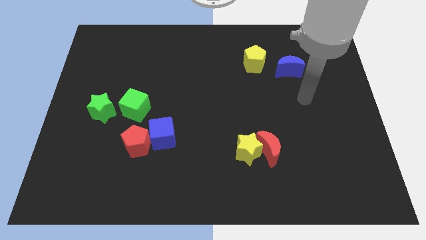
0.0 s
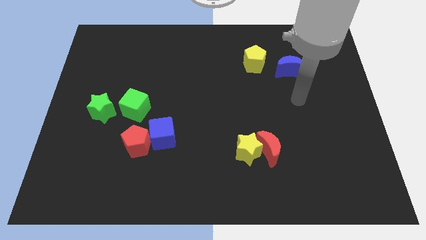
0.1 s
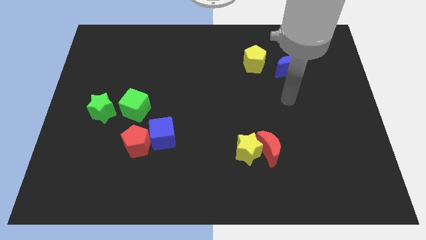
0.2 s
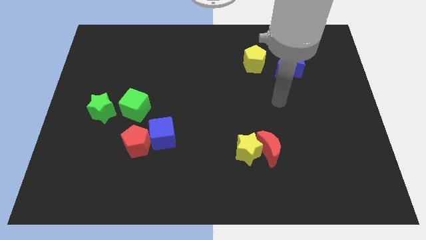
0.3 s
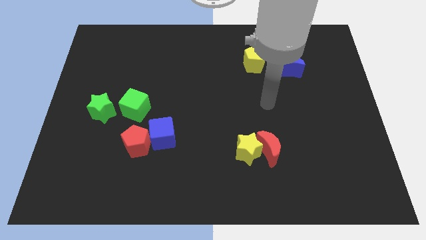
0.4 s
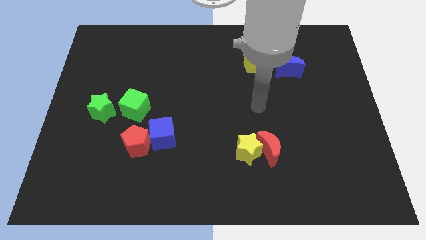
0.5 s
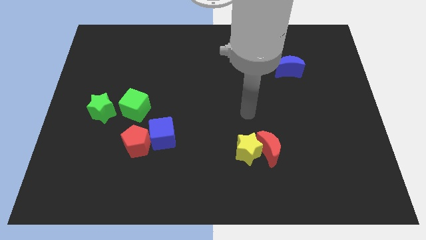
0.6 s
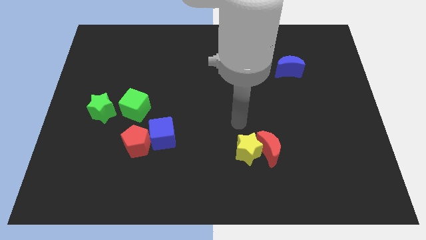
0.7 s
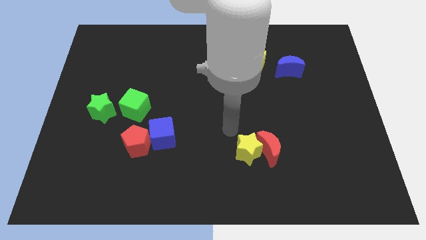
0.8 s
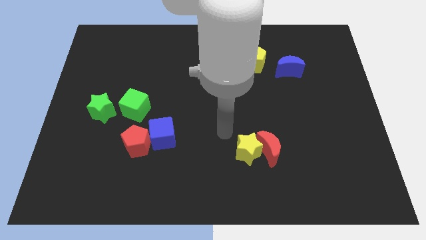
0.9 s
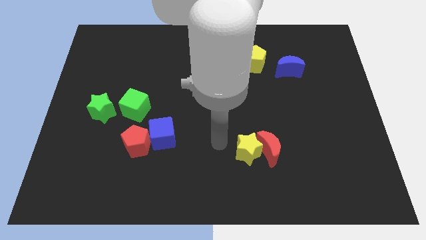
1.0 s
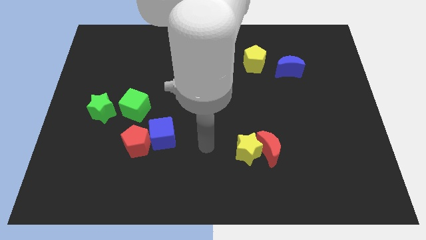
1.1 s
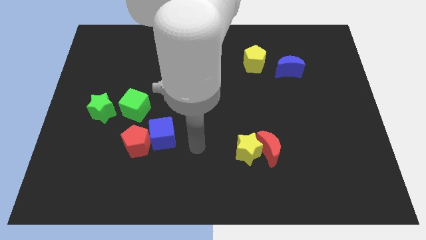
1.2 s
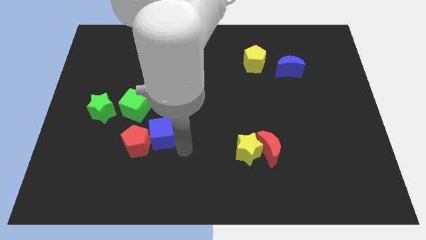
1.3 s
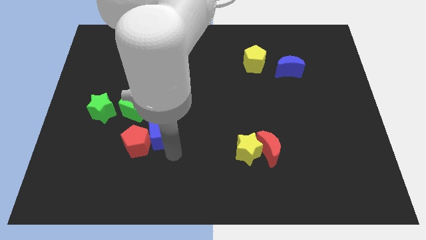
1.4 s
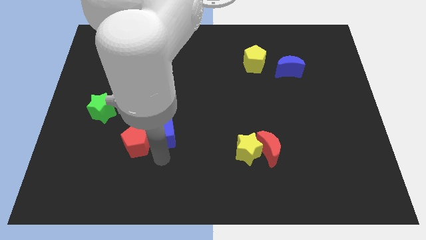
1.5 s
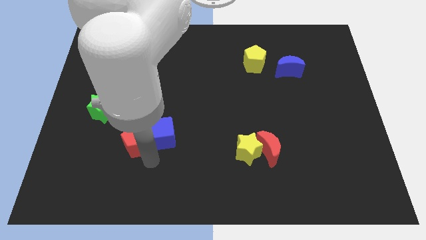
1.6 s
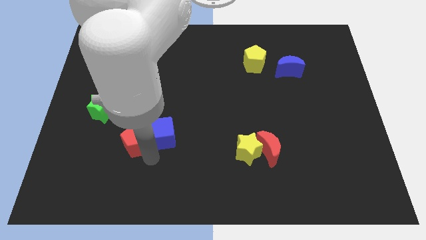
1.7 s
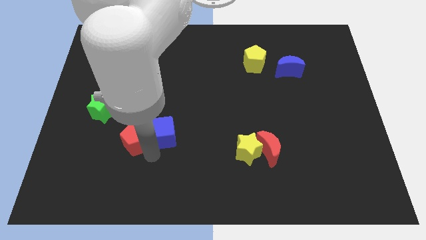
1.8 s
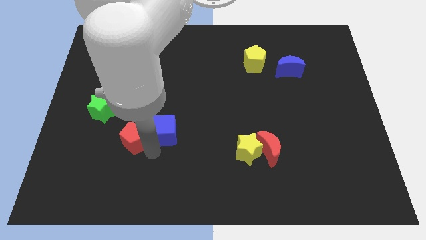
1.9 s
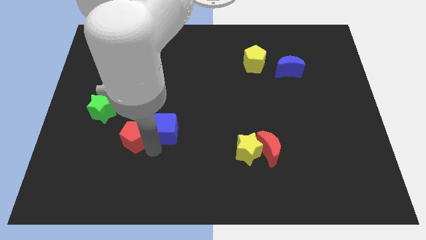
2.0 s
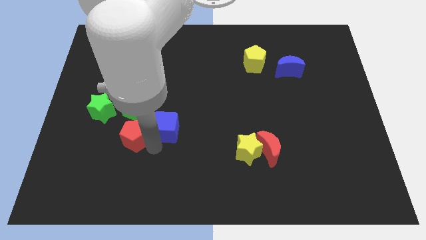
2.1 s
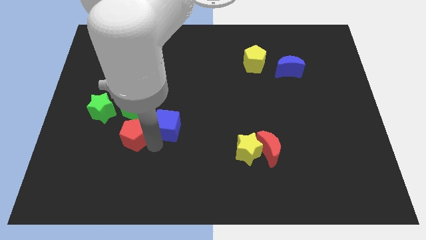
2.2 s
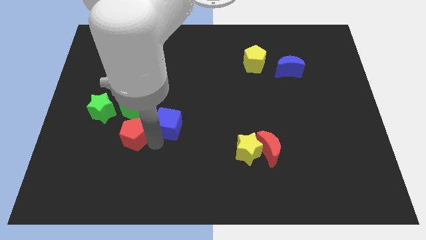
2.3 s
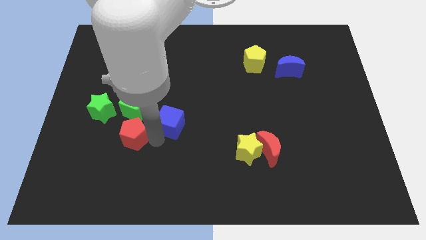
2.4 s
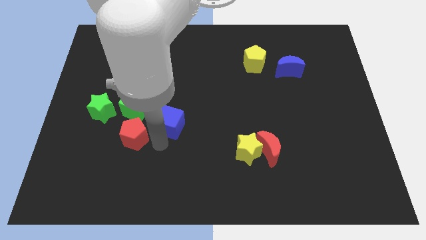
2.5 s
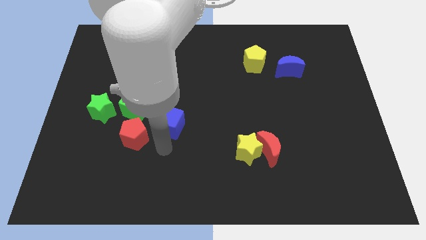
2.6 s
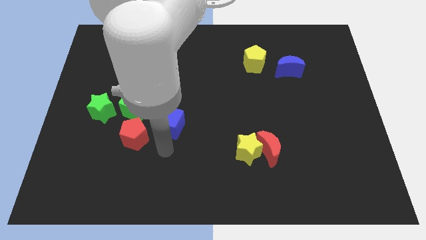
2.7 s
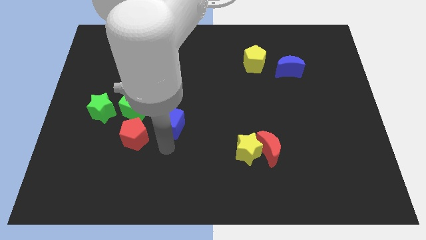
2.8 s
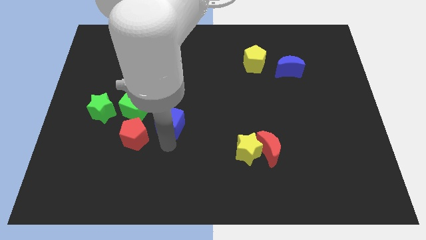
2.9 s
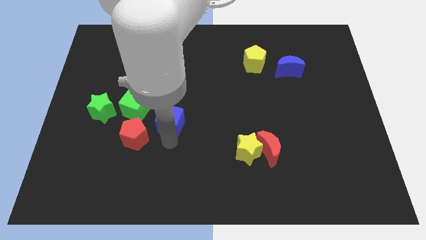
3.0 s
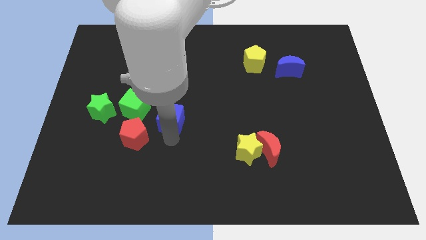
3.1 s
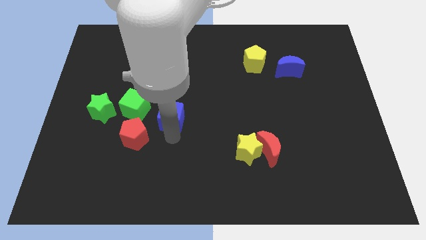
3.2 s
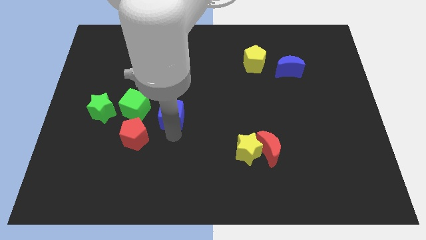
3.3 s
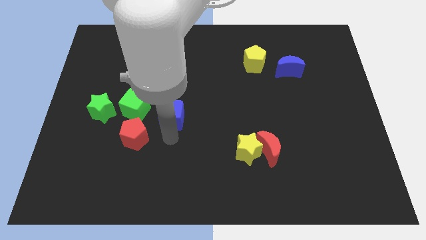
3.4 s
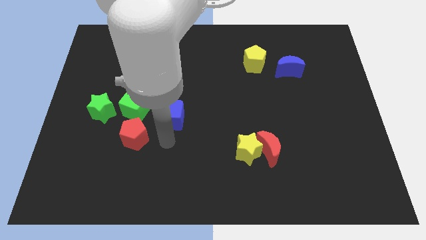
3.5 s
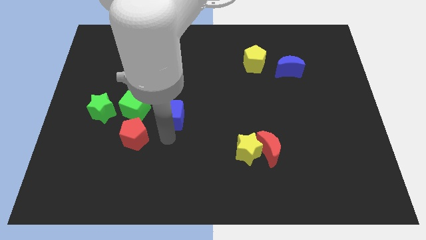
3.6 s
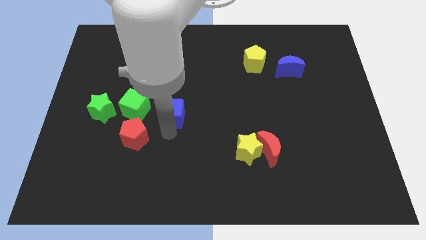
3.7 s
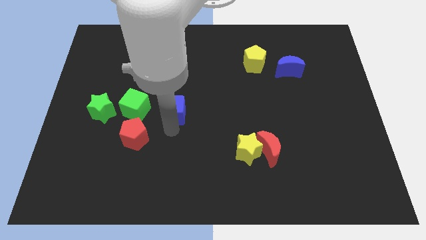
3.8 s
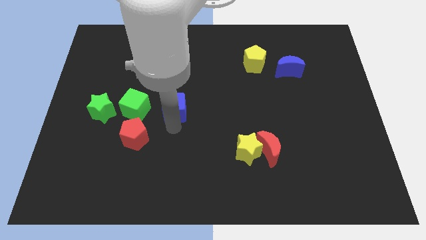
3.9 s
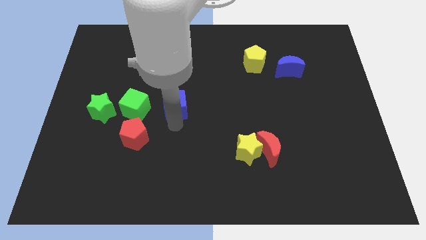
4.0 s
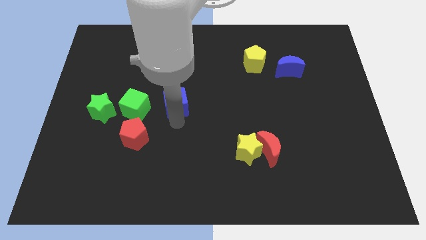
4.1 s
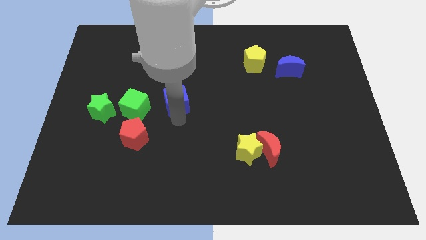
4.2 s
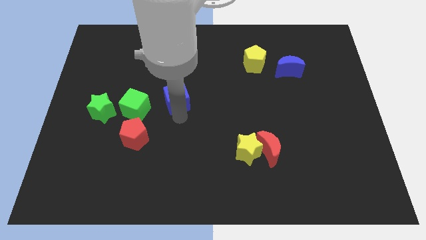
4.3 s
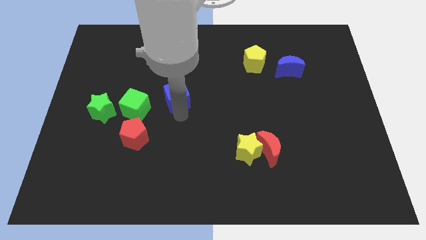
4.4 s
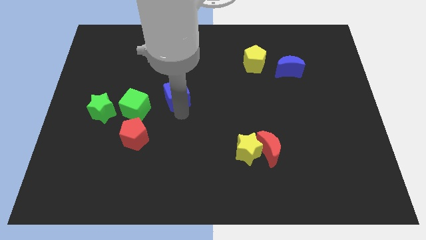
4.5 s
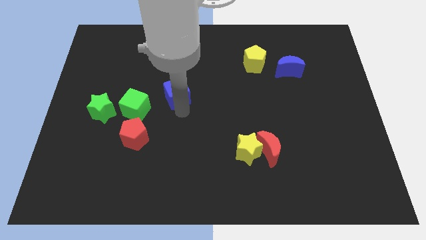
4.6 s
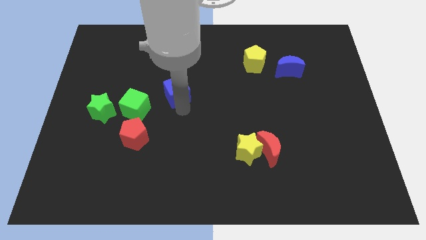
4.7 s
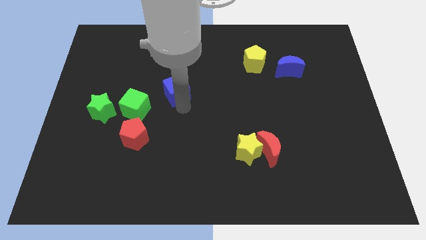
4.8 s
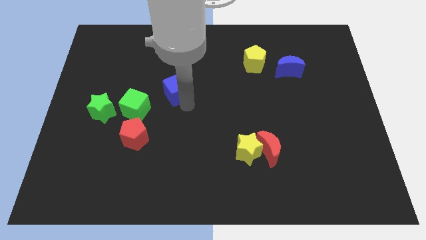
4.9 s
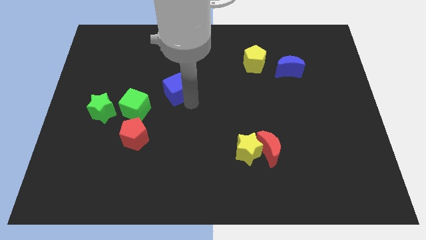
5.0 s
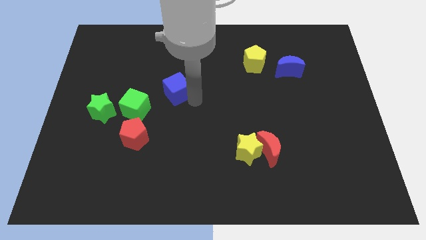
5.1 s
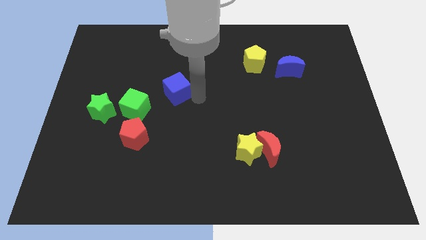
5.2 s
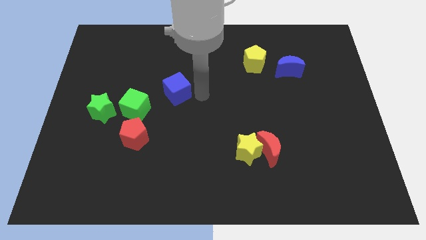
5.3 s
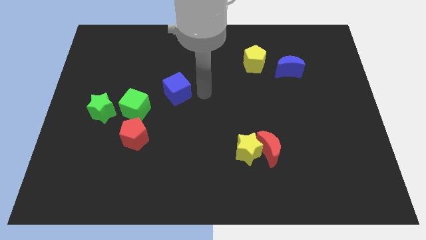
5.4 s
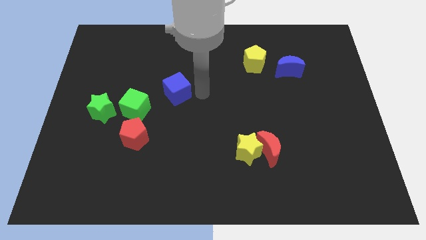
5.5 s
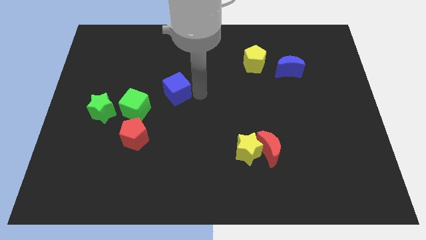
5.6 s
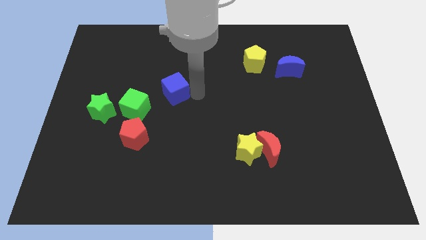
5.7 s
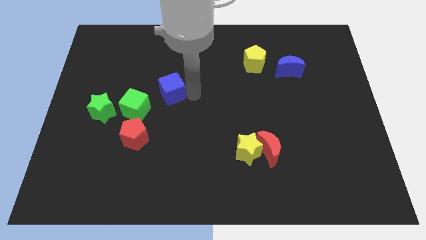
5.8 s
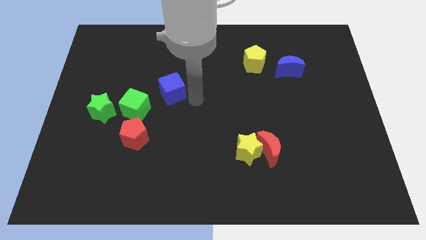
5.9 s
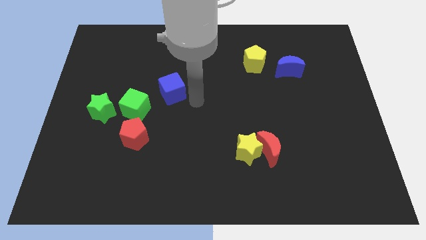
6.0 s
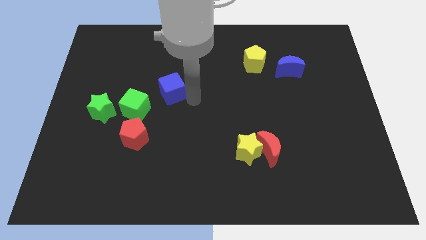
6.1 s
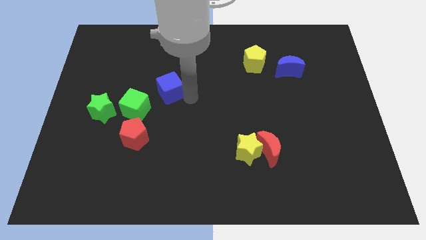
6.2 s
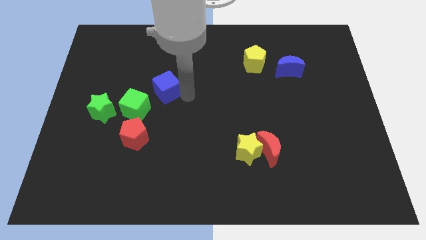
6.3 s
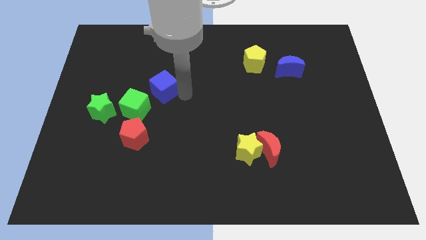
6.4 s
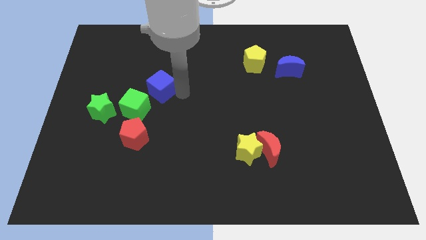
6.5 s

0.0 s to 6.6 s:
move the blue cube a little bit upwards and left

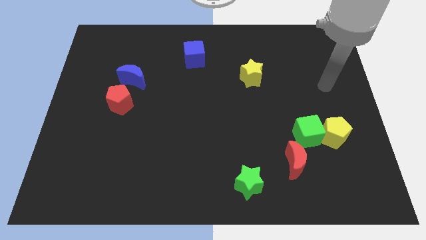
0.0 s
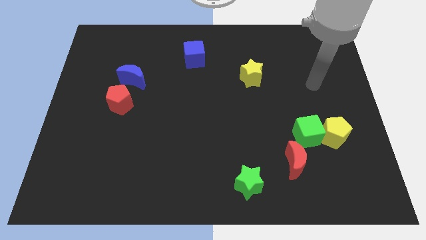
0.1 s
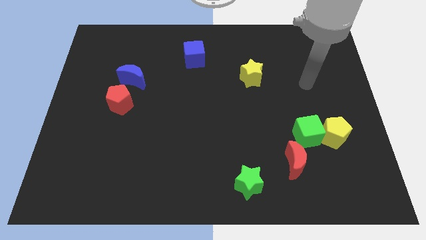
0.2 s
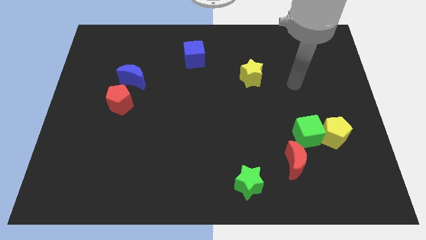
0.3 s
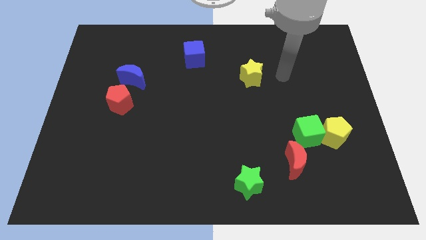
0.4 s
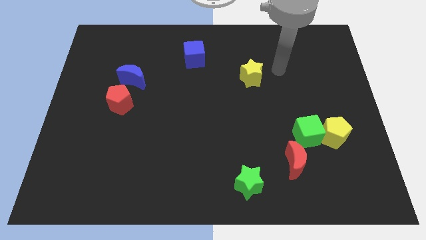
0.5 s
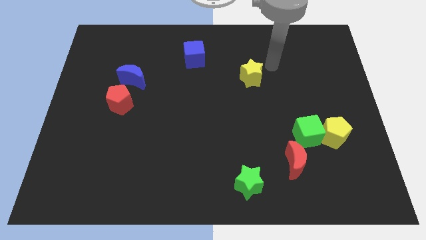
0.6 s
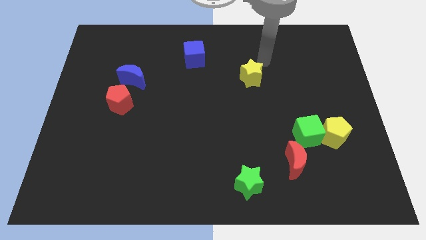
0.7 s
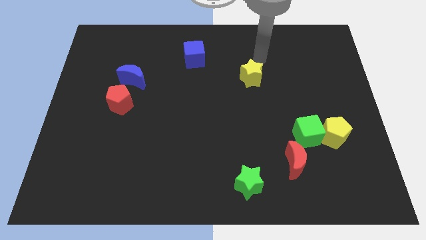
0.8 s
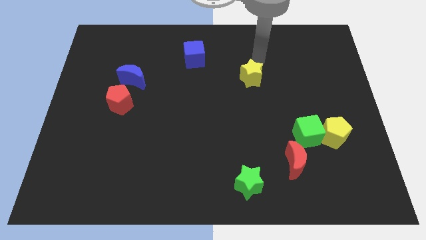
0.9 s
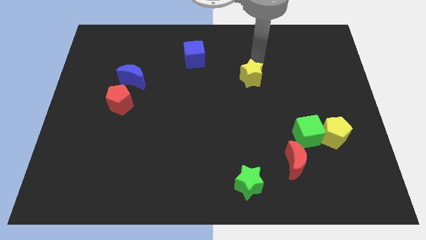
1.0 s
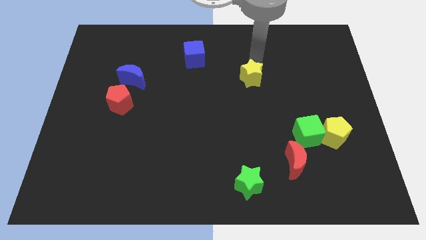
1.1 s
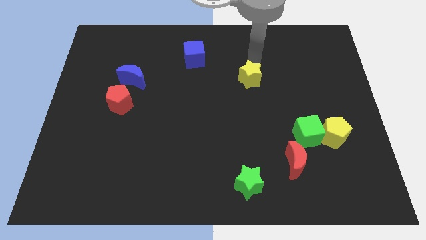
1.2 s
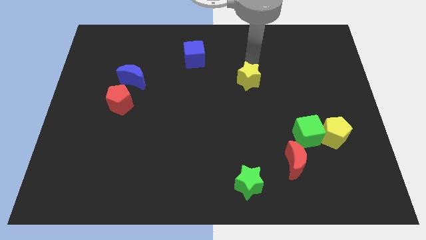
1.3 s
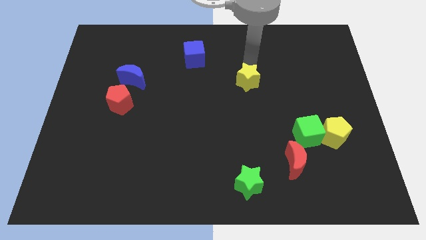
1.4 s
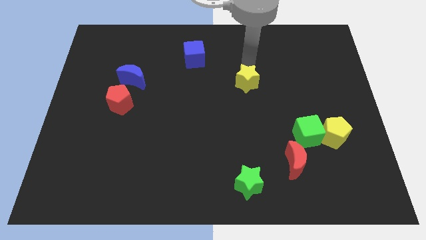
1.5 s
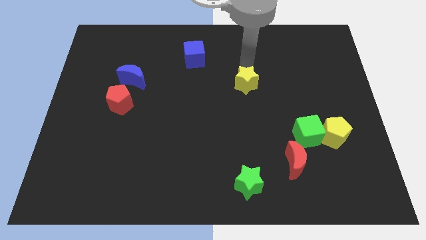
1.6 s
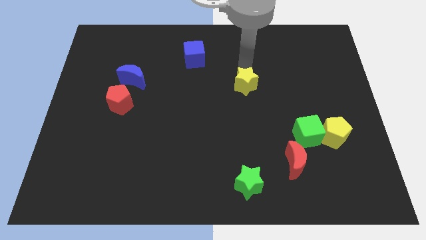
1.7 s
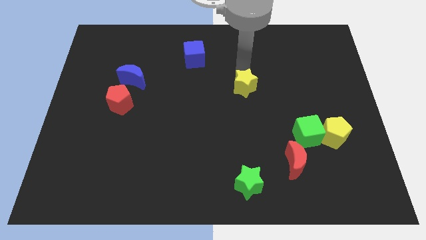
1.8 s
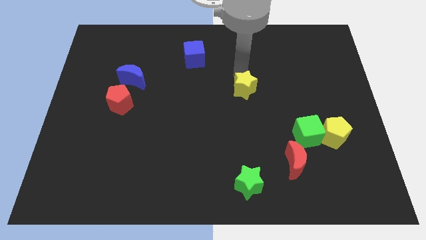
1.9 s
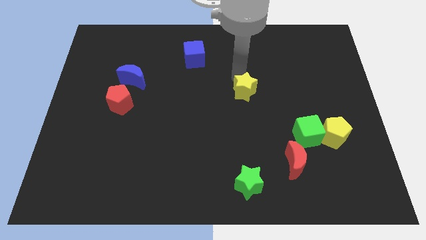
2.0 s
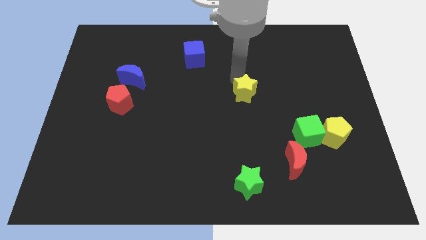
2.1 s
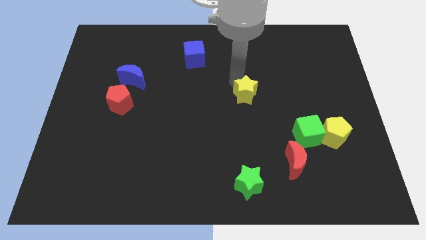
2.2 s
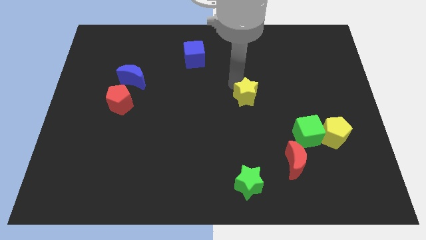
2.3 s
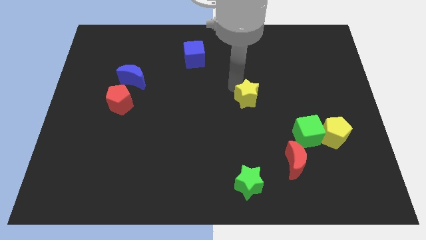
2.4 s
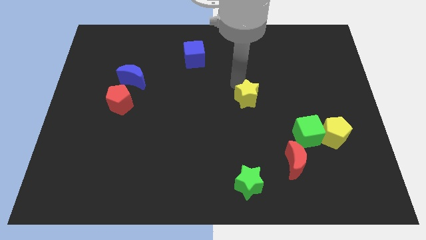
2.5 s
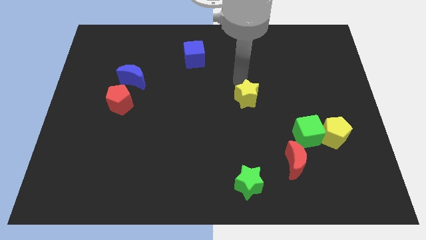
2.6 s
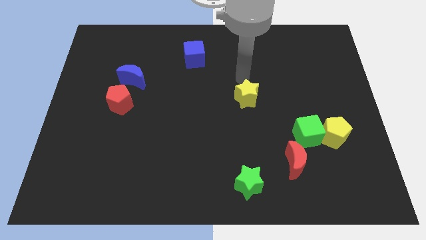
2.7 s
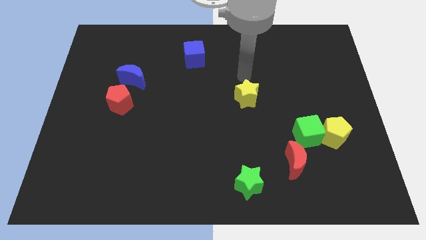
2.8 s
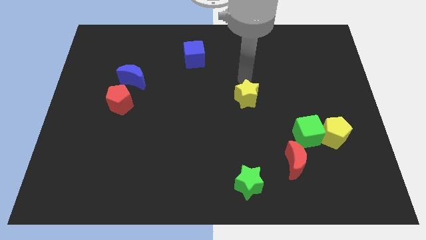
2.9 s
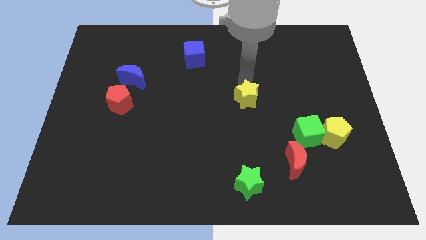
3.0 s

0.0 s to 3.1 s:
move the yellow star slightly down
